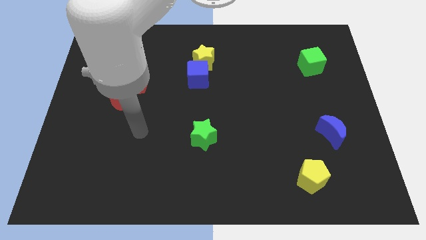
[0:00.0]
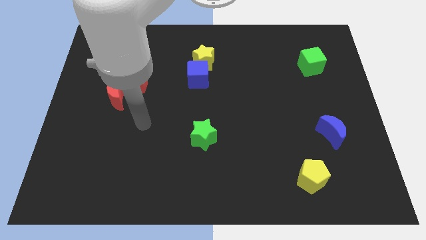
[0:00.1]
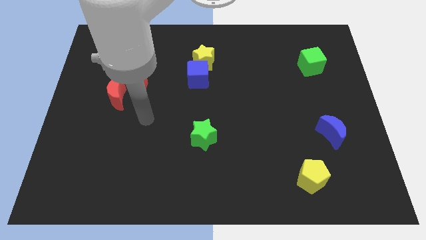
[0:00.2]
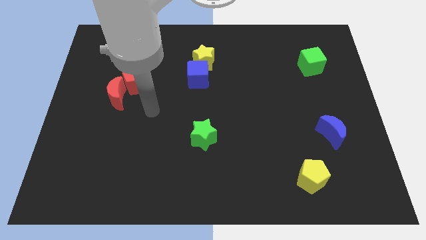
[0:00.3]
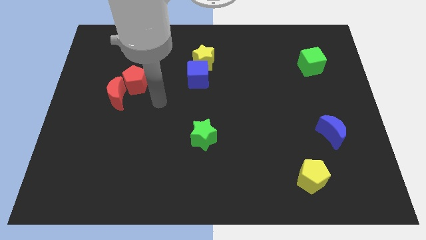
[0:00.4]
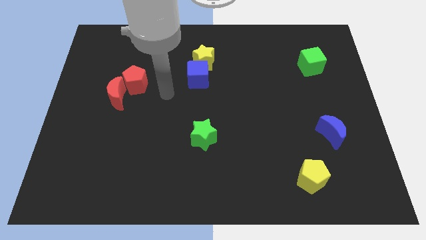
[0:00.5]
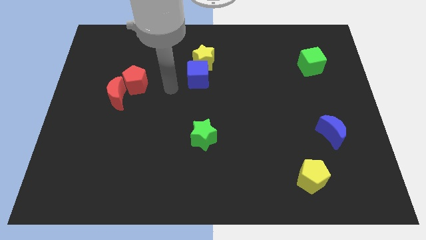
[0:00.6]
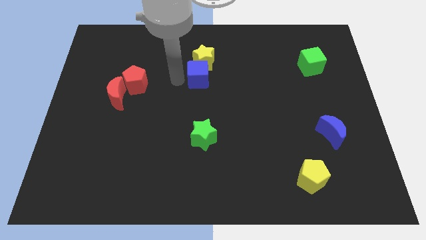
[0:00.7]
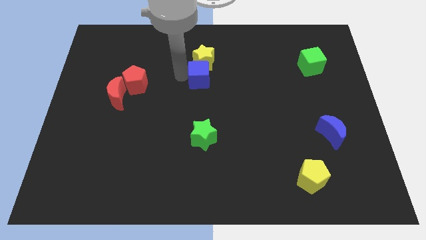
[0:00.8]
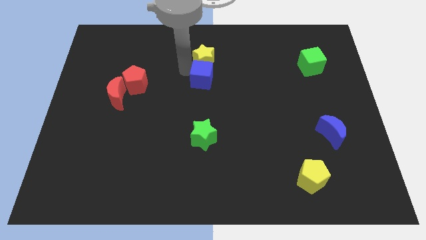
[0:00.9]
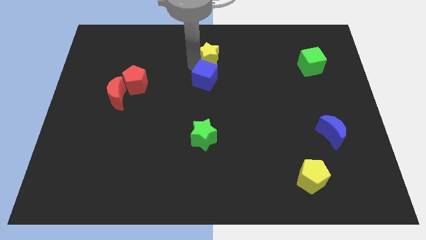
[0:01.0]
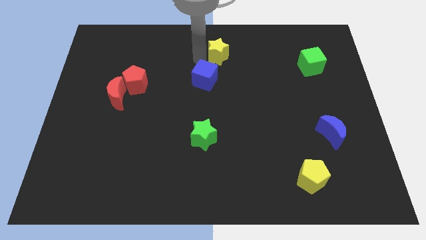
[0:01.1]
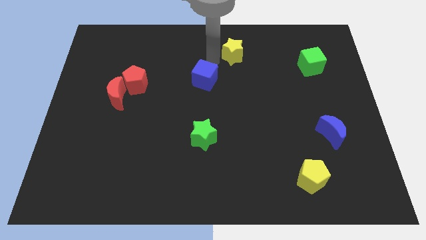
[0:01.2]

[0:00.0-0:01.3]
separate the blue cube from the yellow star

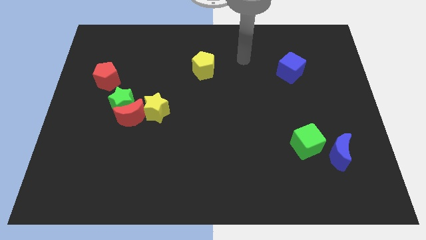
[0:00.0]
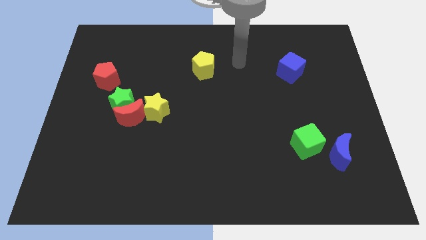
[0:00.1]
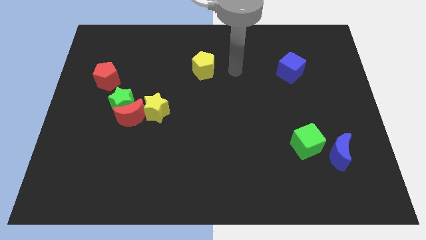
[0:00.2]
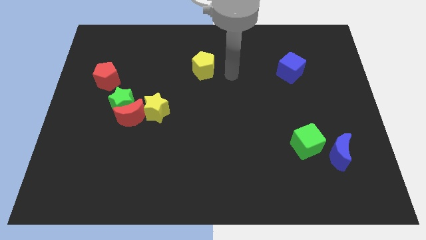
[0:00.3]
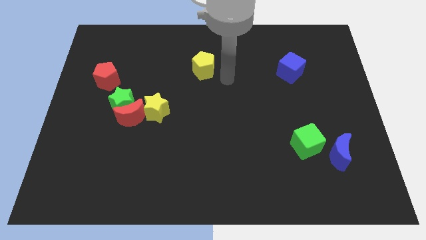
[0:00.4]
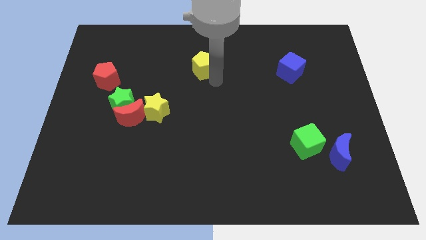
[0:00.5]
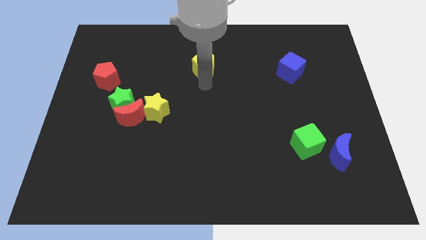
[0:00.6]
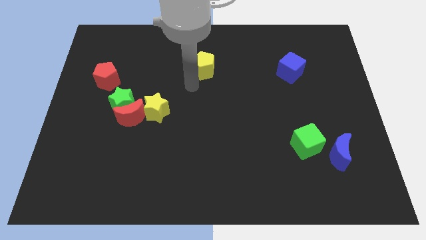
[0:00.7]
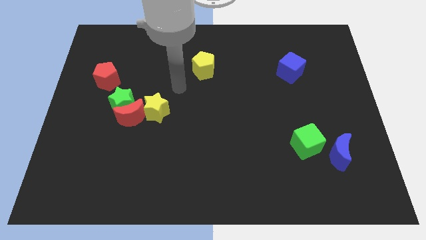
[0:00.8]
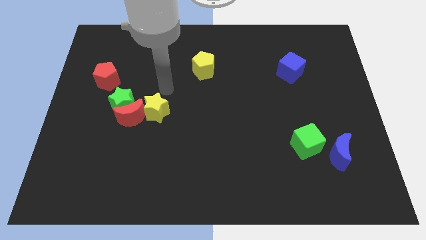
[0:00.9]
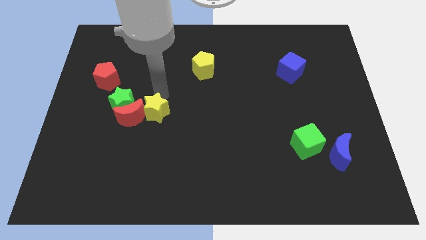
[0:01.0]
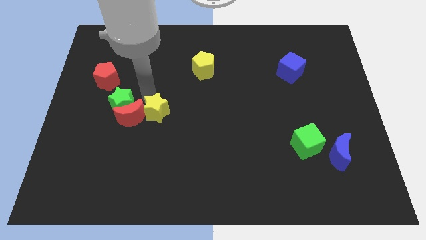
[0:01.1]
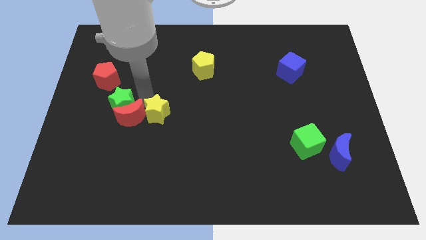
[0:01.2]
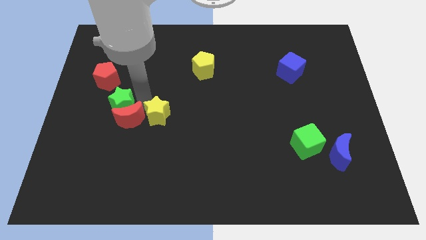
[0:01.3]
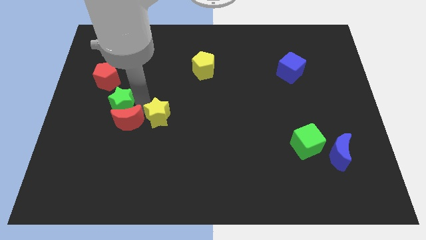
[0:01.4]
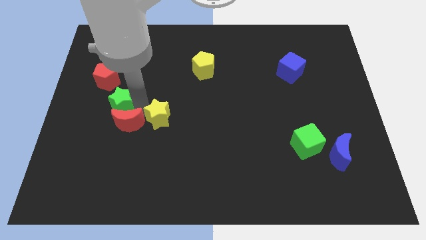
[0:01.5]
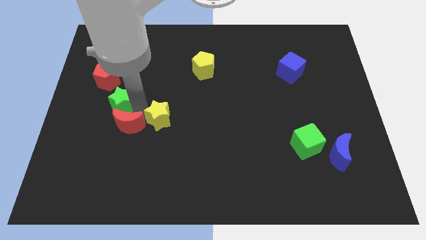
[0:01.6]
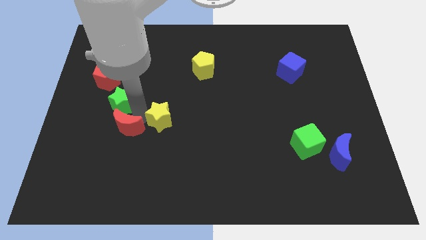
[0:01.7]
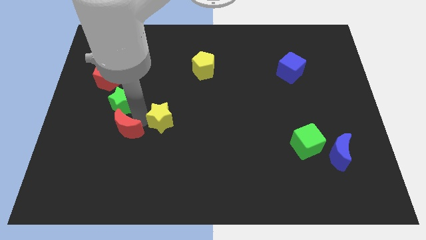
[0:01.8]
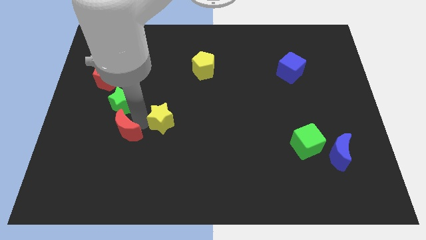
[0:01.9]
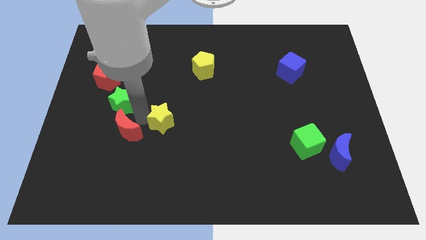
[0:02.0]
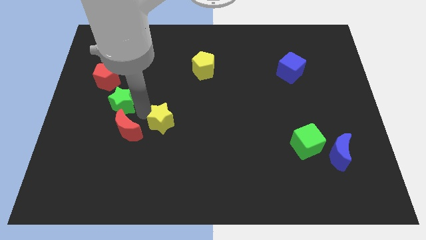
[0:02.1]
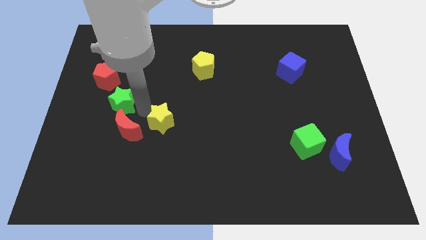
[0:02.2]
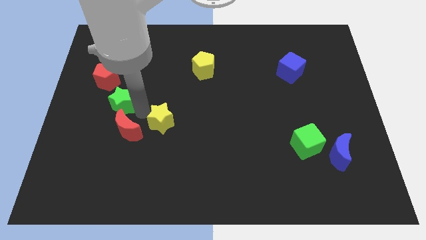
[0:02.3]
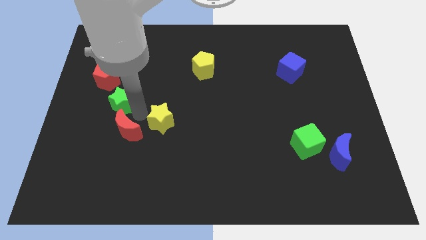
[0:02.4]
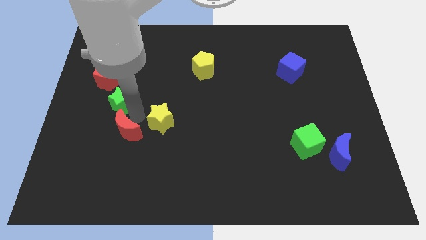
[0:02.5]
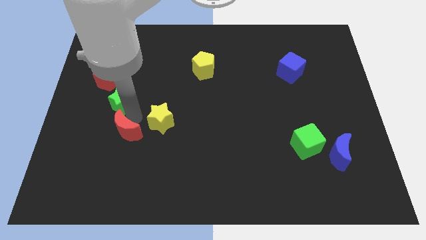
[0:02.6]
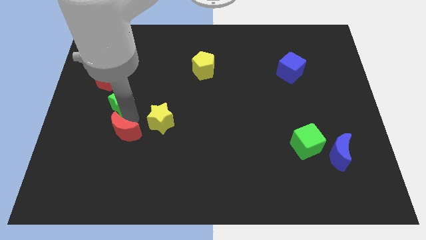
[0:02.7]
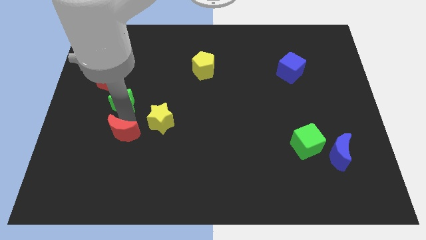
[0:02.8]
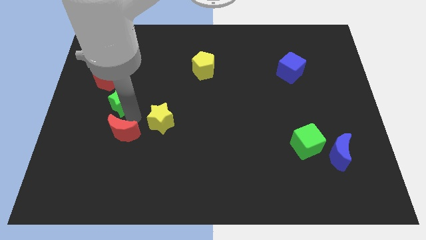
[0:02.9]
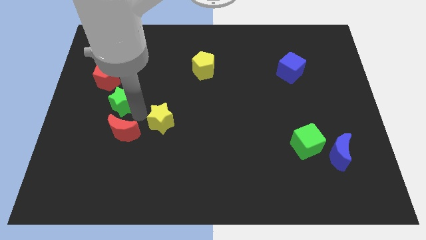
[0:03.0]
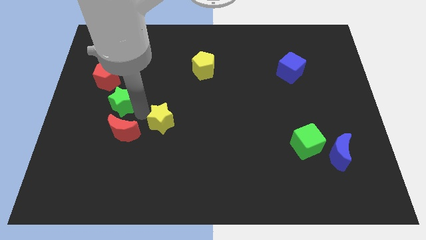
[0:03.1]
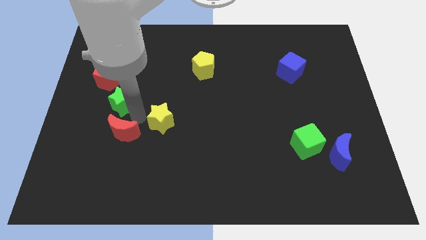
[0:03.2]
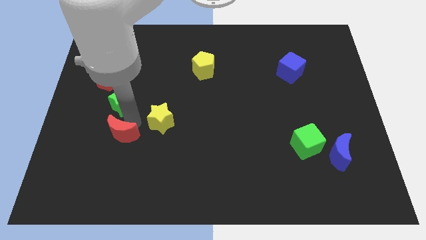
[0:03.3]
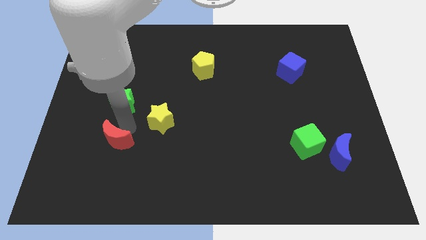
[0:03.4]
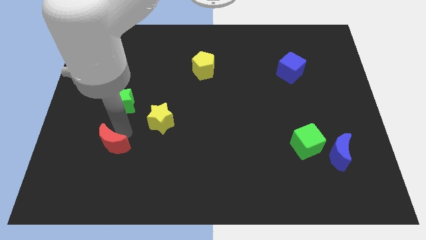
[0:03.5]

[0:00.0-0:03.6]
separate the red moon from the green star and yellow star

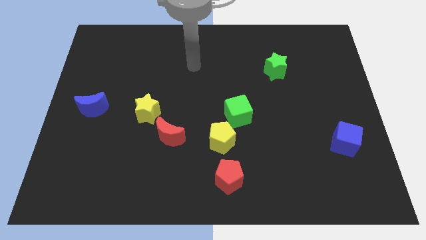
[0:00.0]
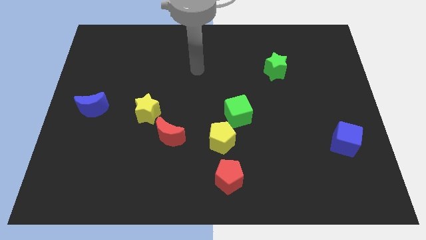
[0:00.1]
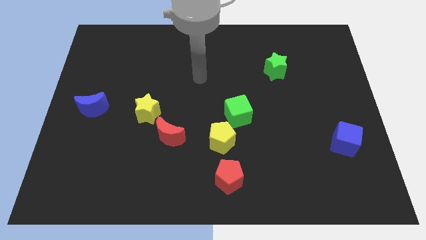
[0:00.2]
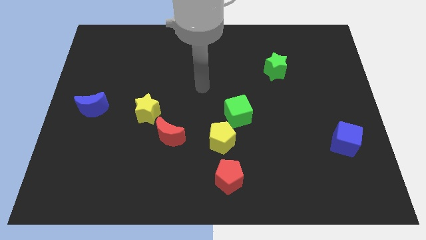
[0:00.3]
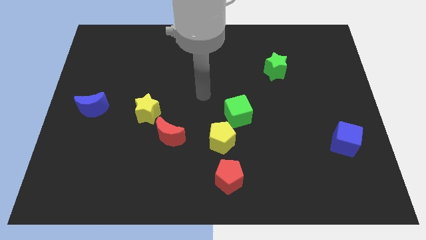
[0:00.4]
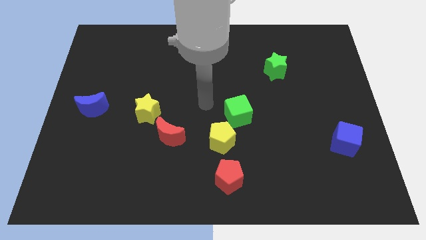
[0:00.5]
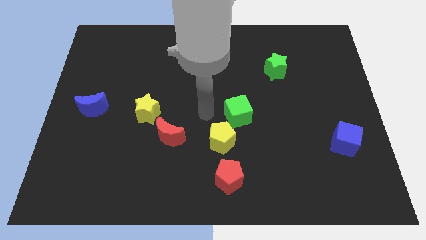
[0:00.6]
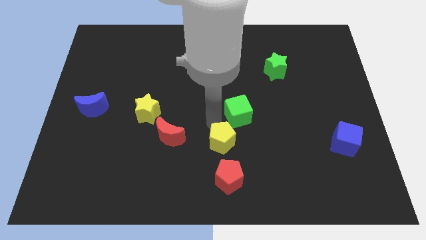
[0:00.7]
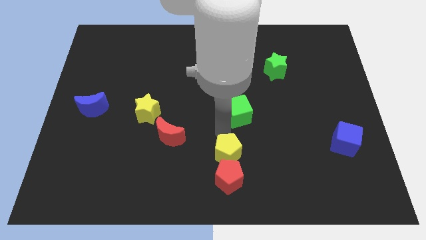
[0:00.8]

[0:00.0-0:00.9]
separate the green cube from the yellow pentagon

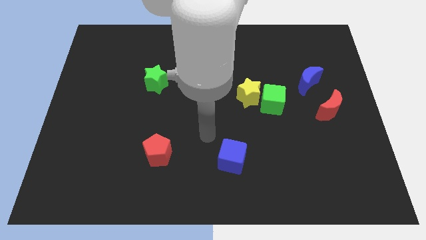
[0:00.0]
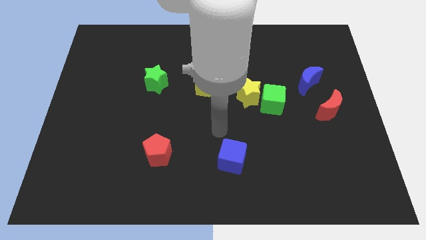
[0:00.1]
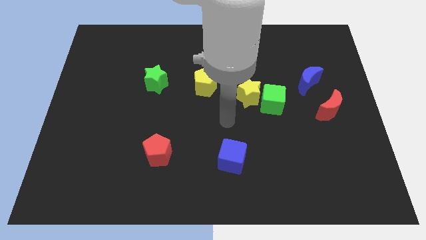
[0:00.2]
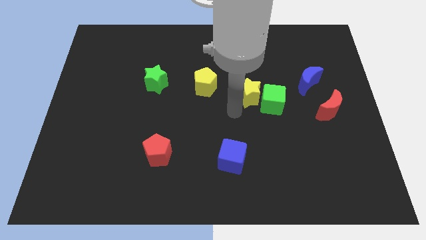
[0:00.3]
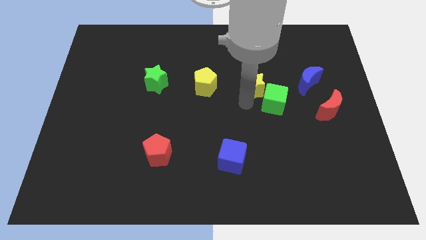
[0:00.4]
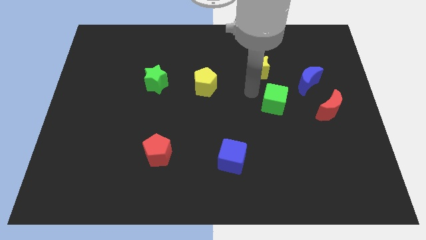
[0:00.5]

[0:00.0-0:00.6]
separate the green cube from the yellow star

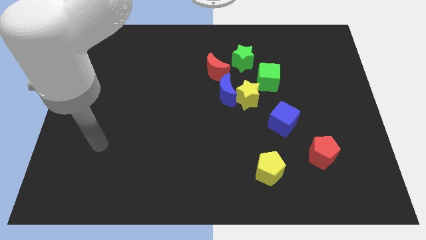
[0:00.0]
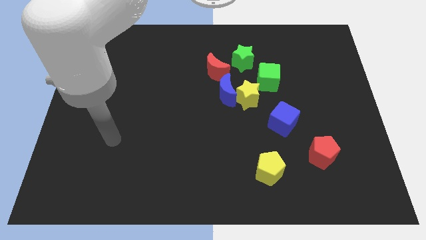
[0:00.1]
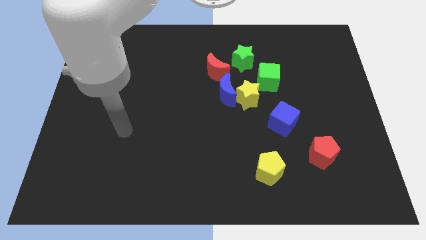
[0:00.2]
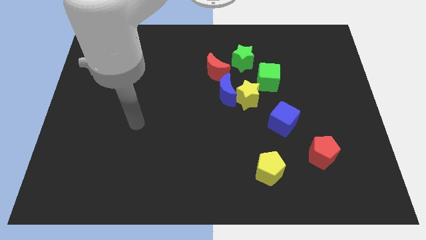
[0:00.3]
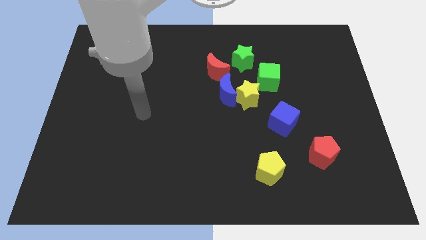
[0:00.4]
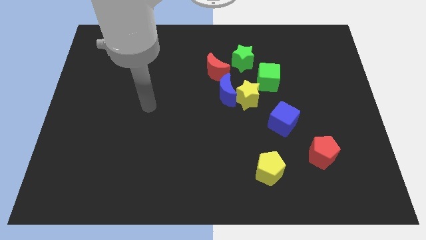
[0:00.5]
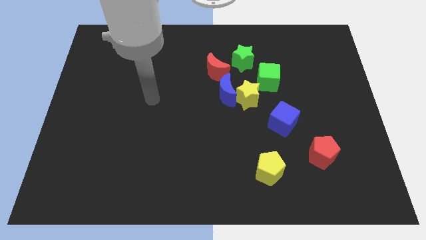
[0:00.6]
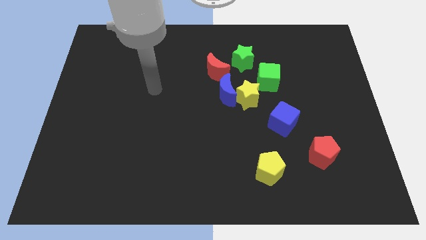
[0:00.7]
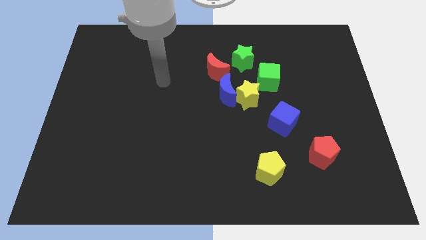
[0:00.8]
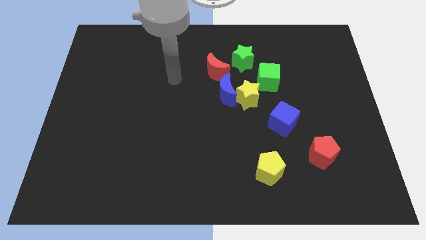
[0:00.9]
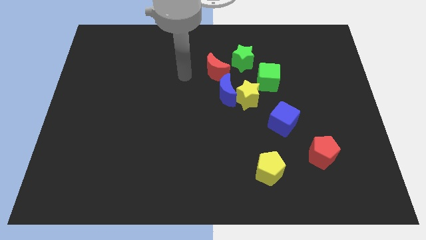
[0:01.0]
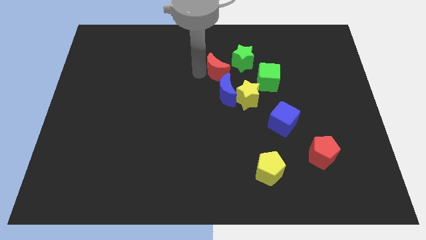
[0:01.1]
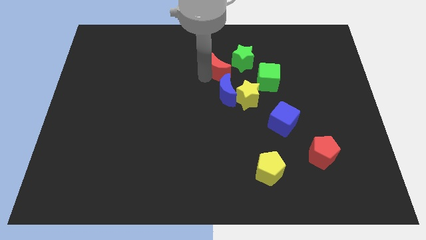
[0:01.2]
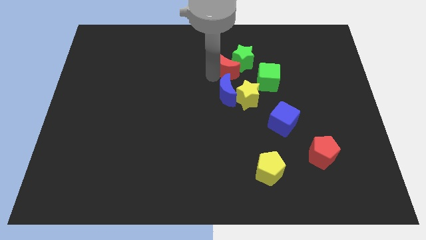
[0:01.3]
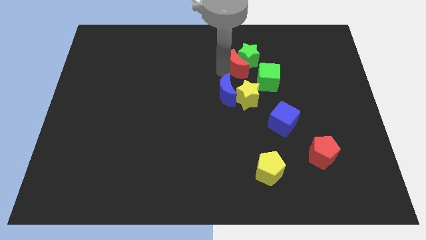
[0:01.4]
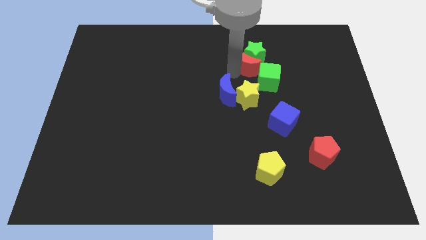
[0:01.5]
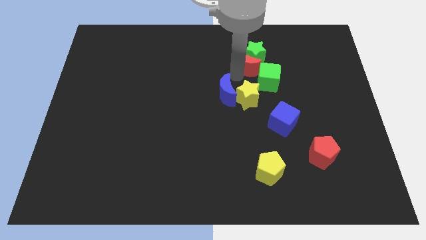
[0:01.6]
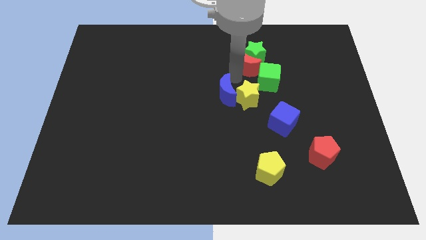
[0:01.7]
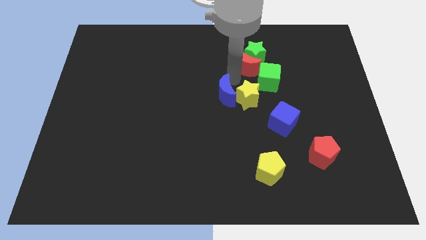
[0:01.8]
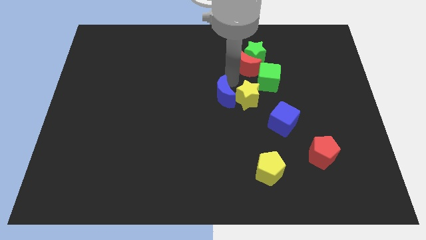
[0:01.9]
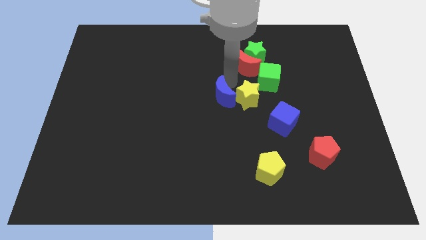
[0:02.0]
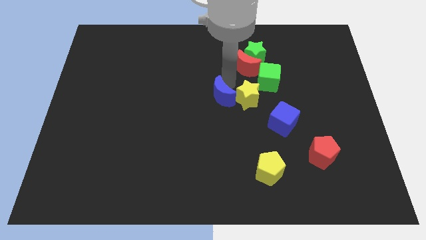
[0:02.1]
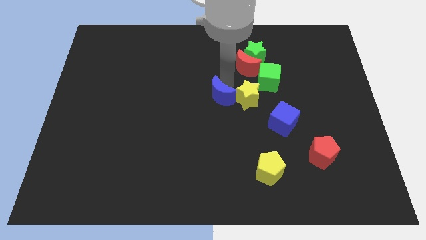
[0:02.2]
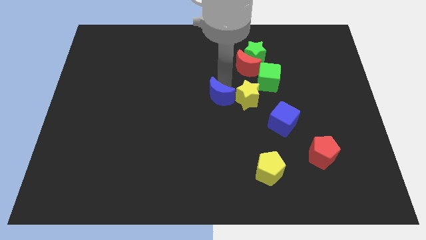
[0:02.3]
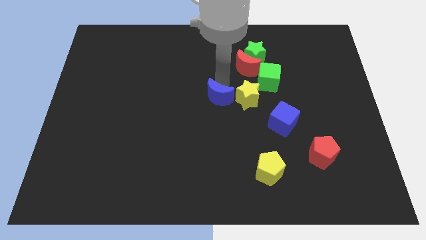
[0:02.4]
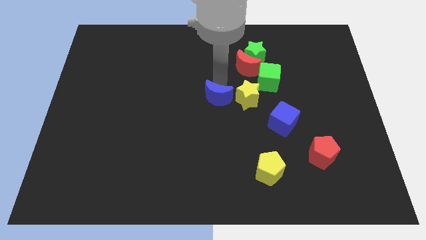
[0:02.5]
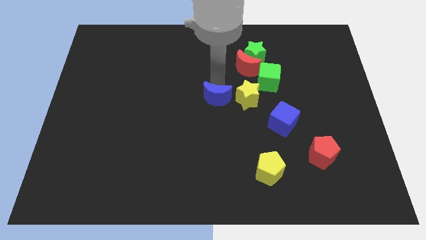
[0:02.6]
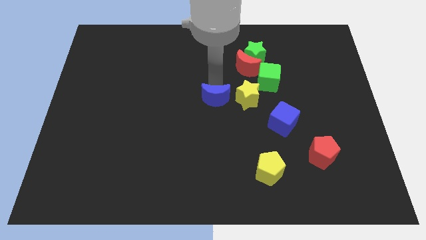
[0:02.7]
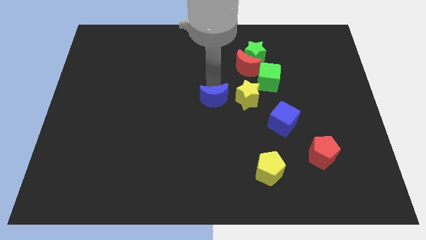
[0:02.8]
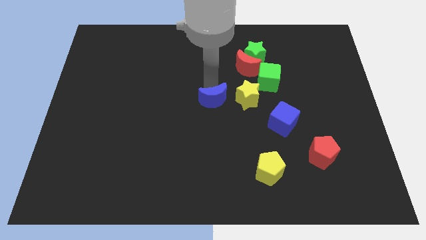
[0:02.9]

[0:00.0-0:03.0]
pull the blue moon apart from the yellow star and red moon

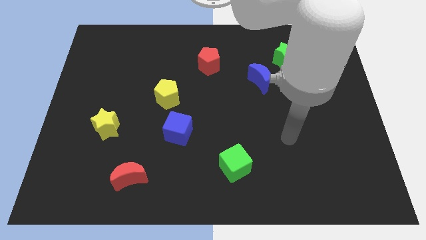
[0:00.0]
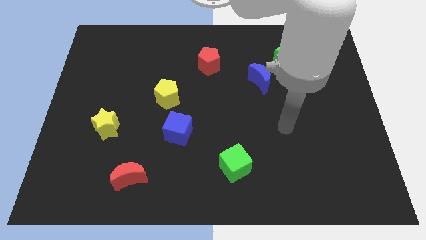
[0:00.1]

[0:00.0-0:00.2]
move the blue moon away from the green star
